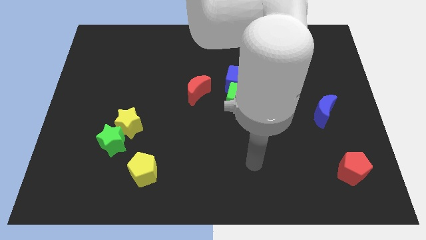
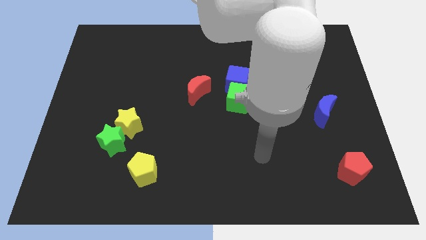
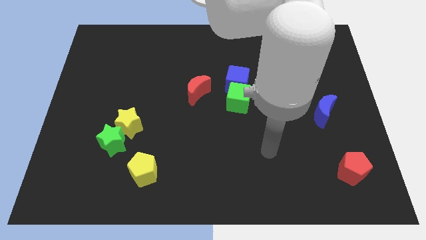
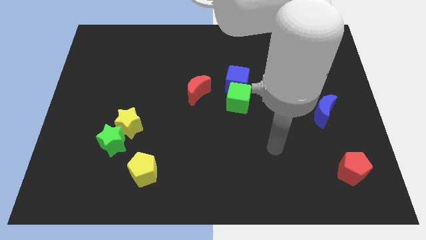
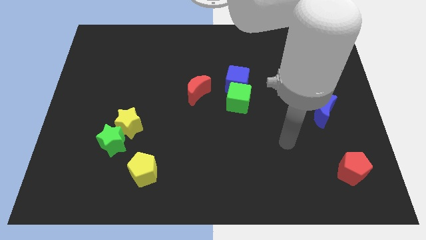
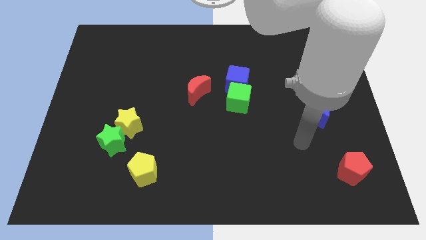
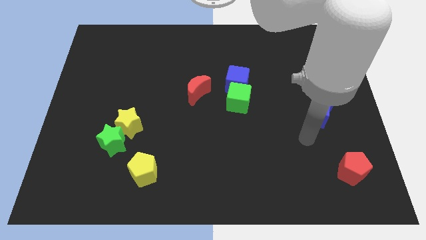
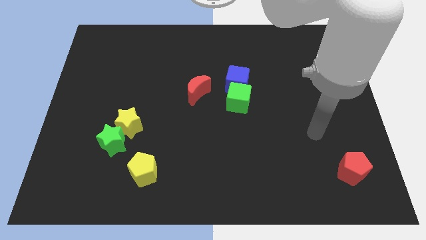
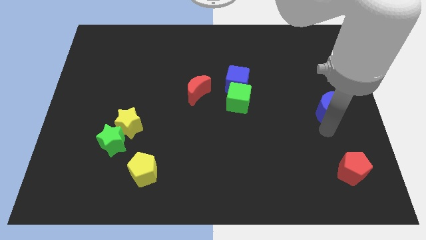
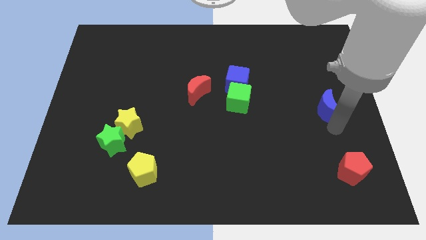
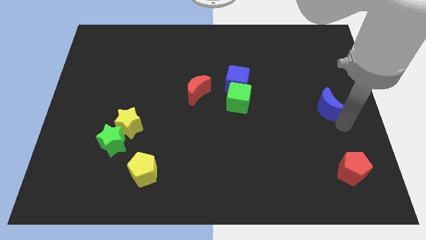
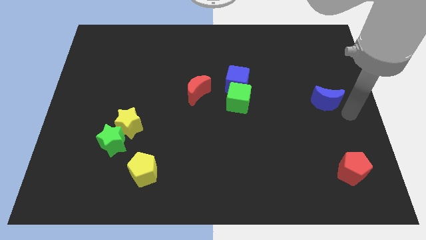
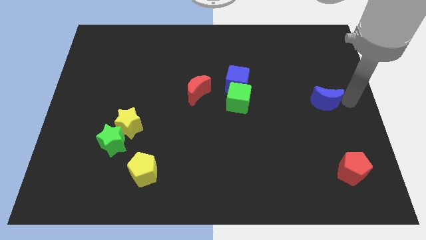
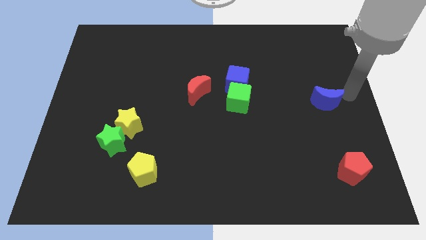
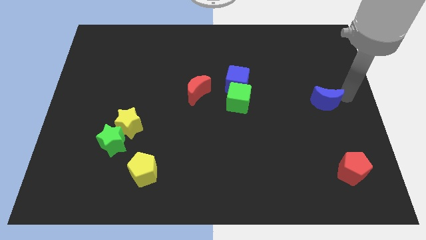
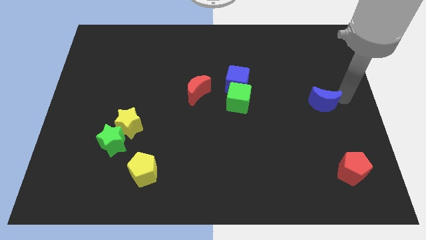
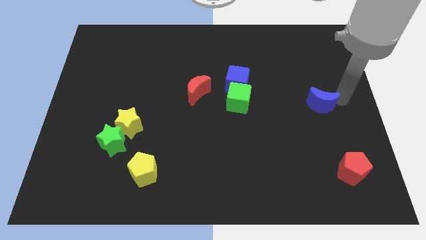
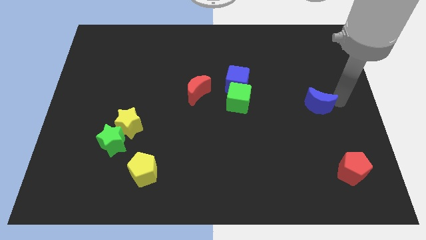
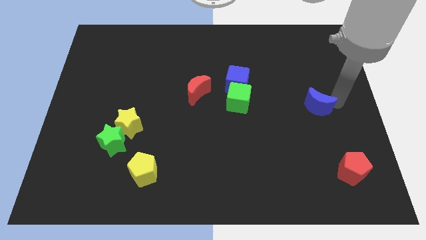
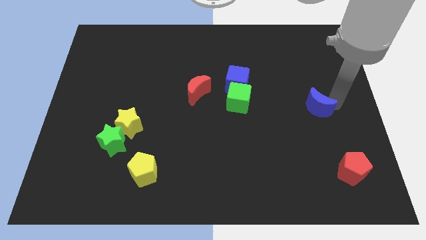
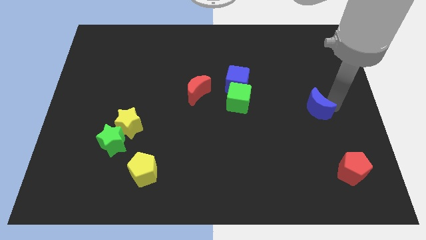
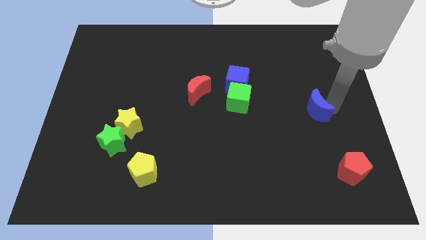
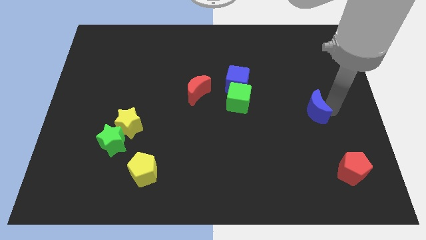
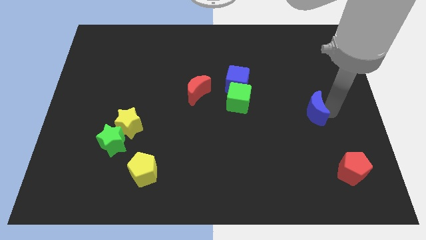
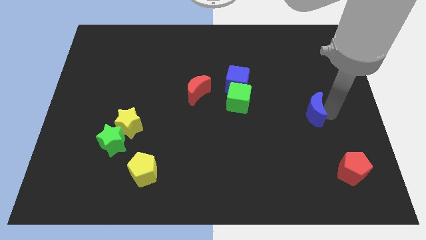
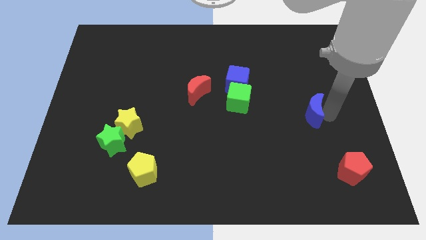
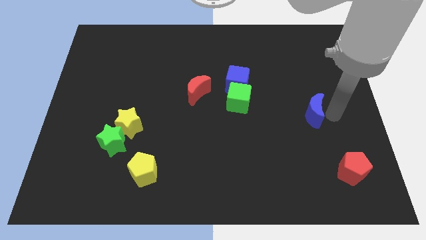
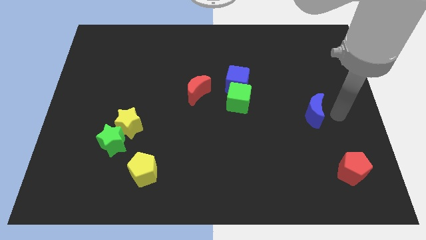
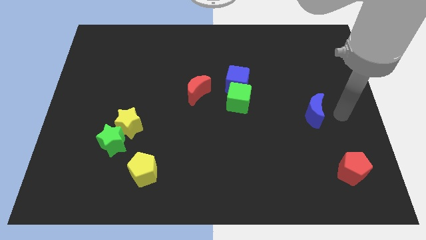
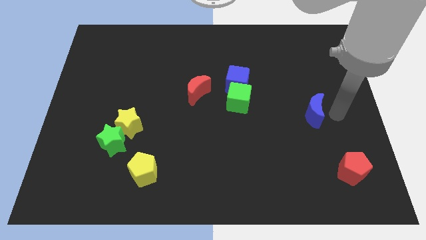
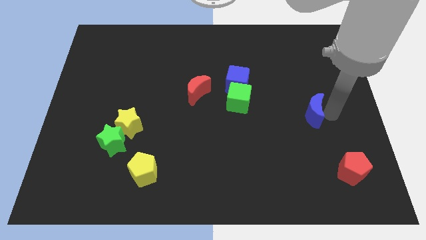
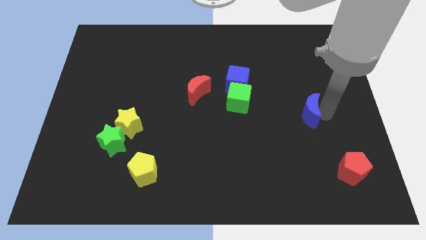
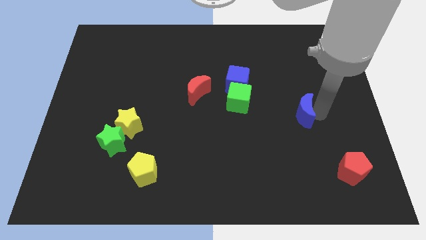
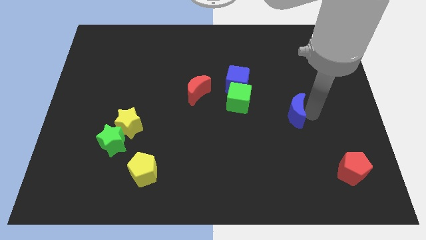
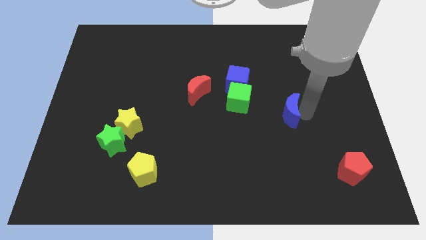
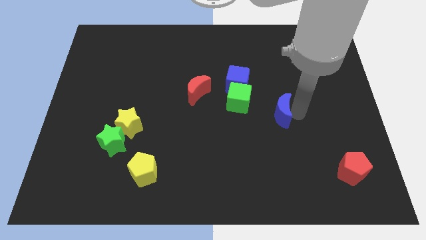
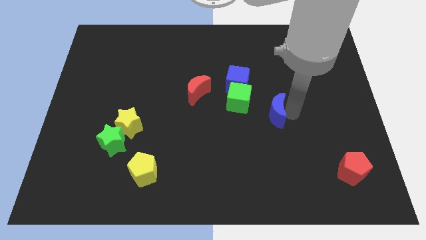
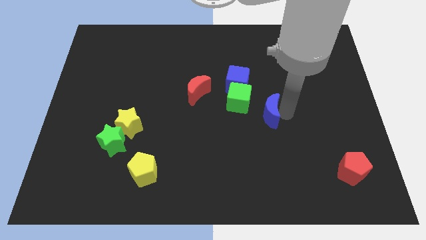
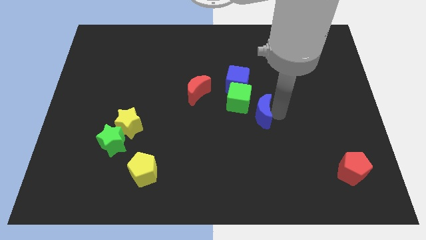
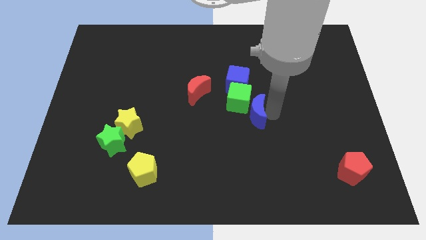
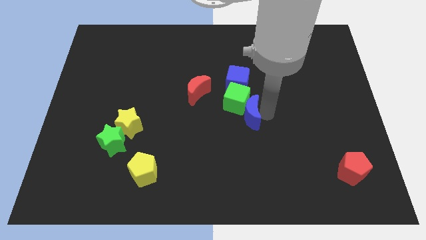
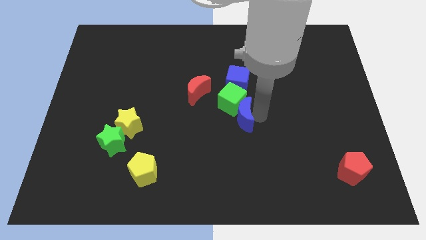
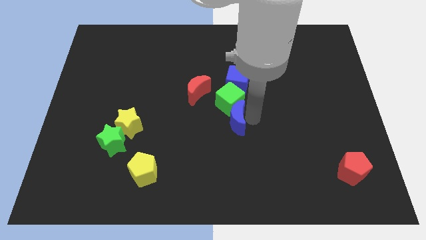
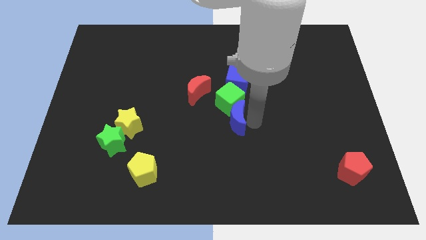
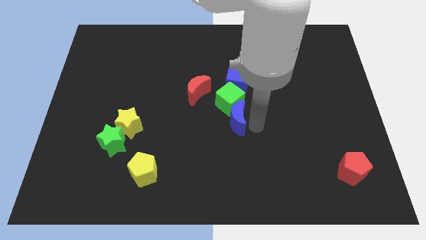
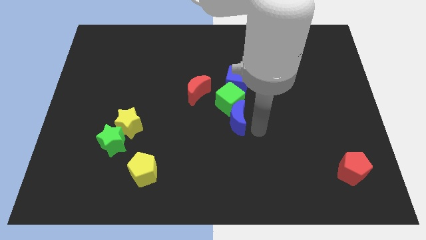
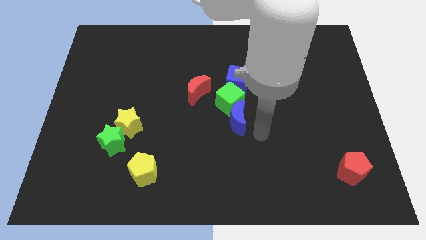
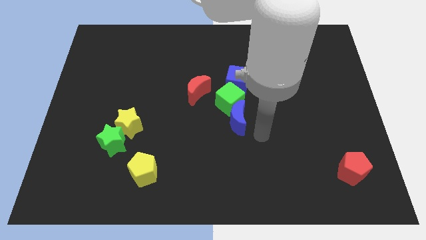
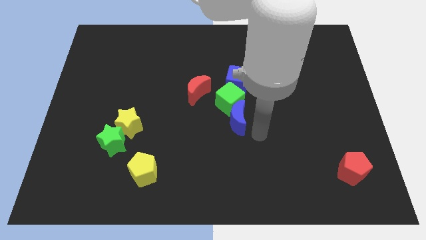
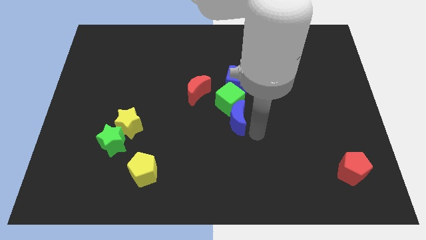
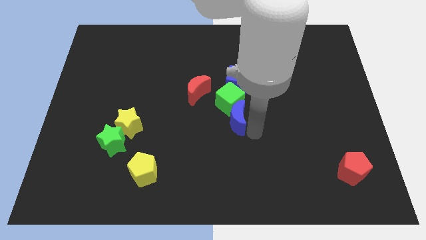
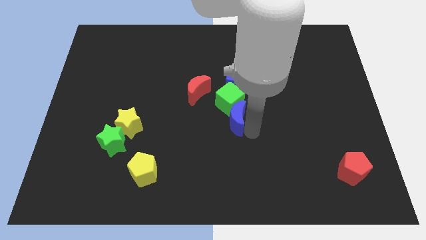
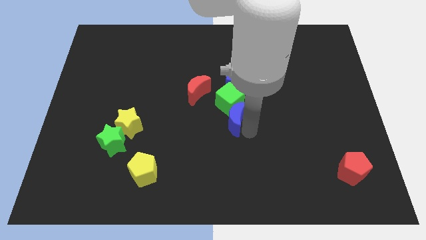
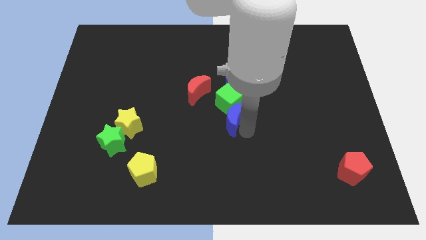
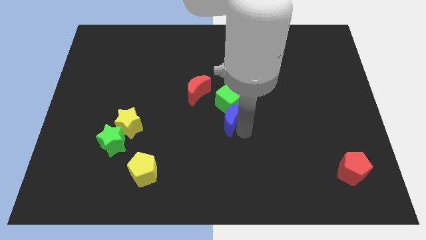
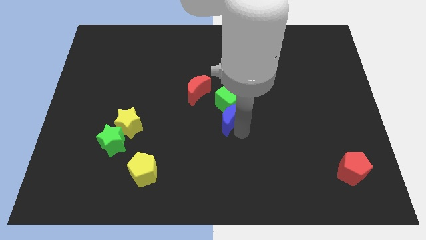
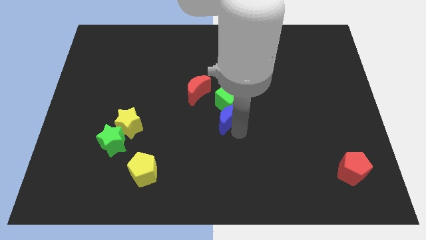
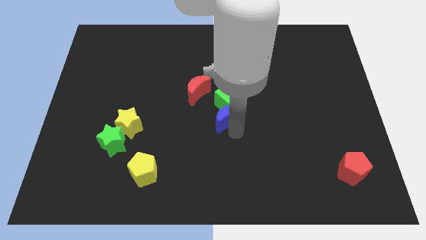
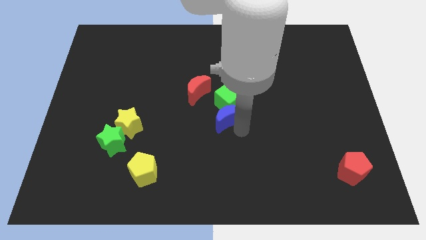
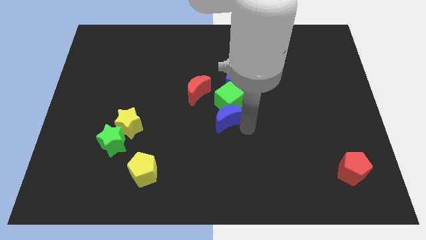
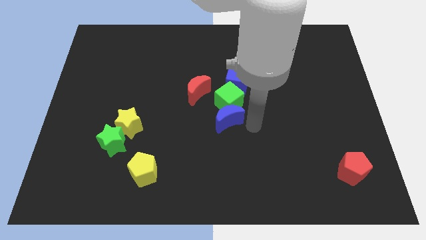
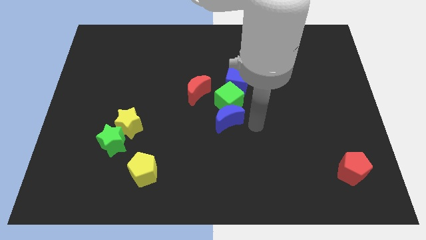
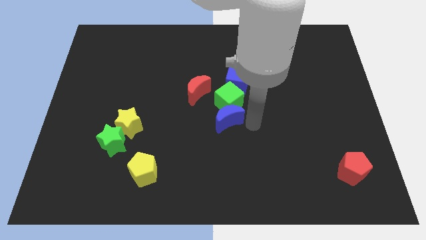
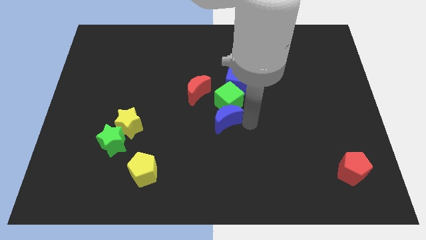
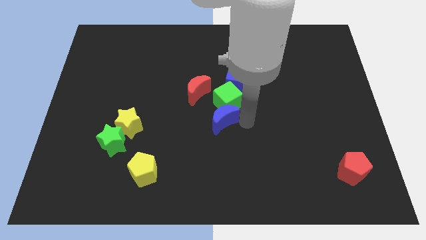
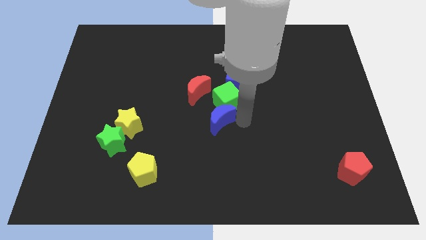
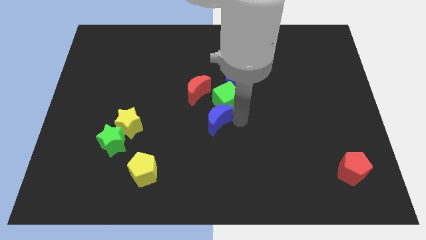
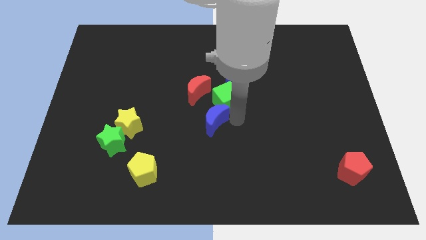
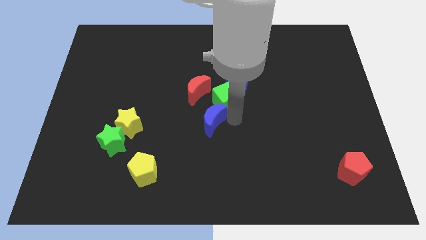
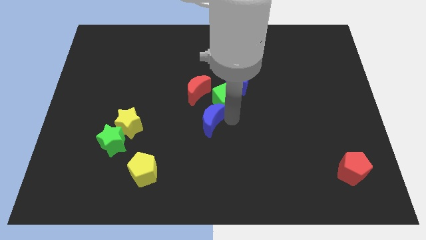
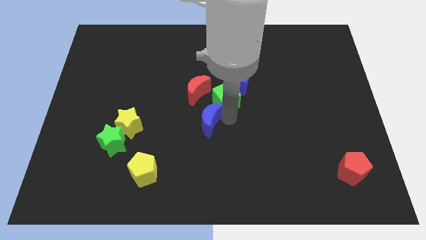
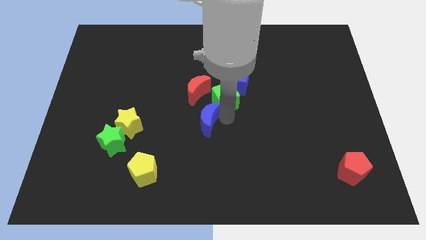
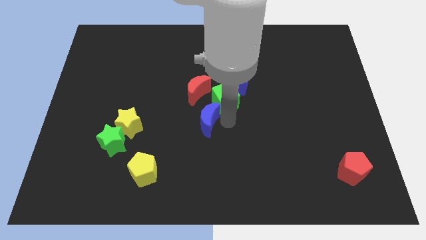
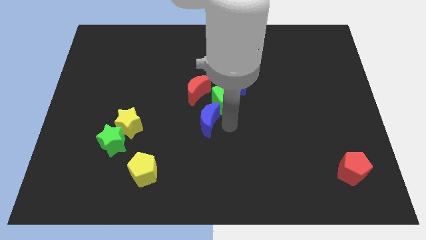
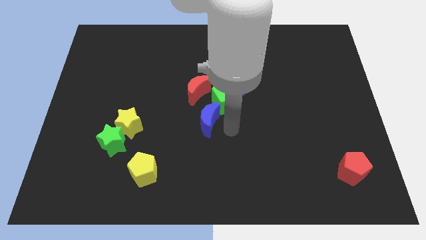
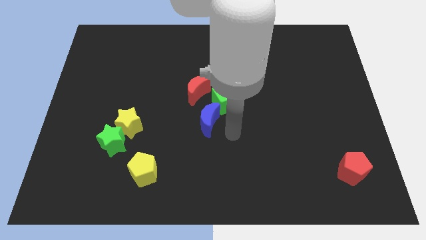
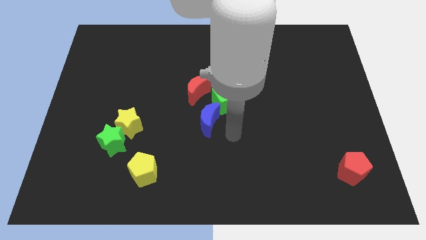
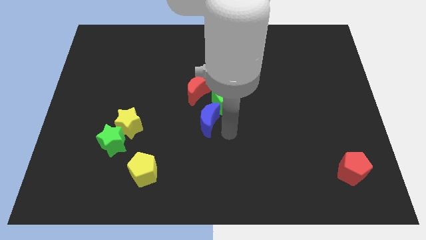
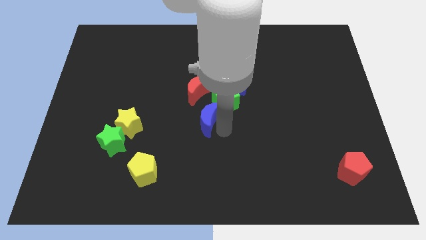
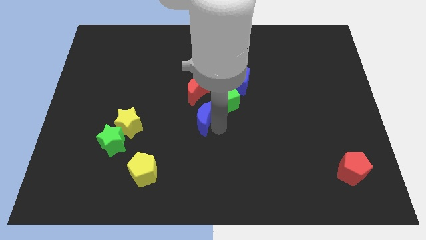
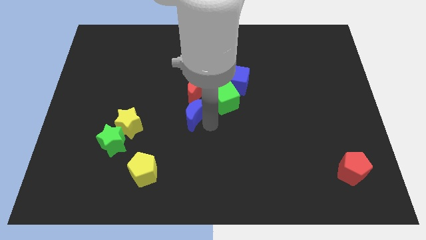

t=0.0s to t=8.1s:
move the blue moon to the left side of the green cube
